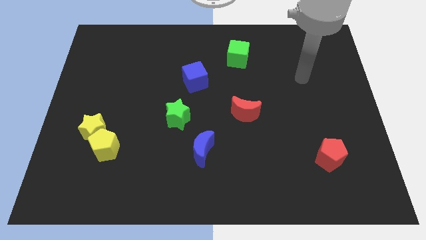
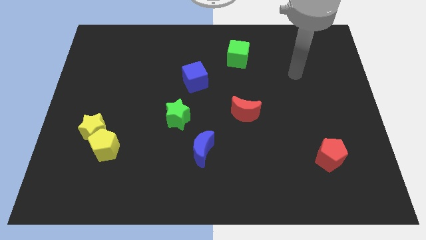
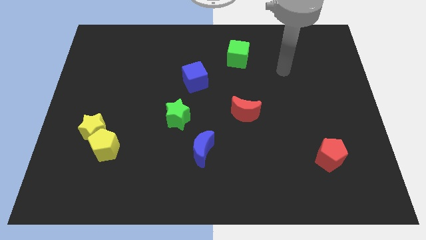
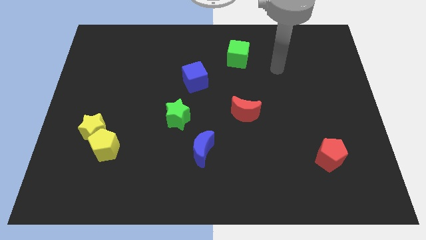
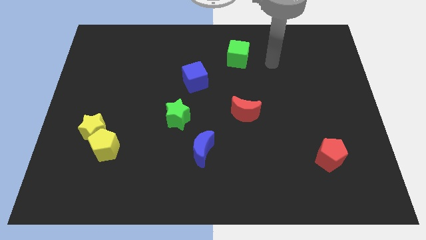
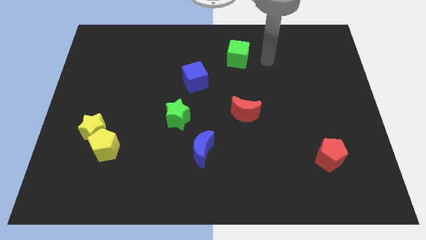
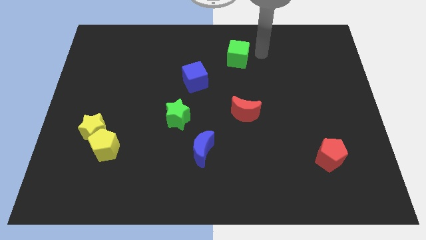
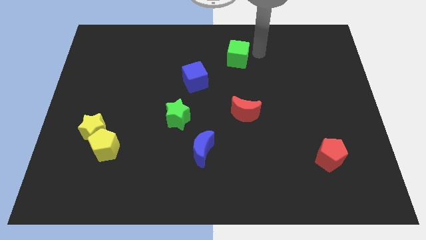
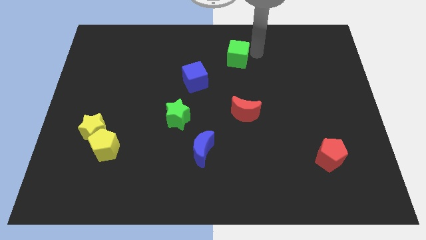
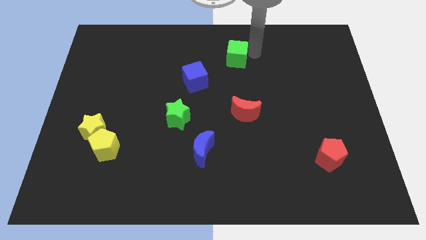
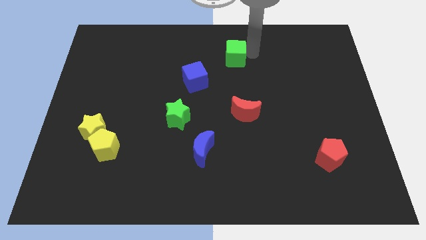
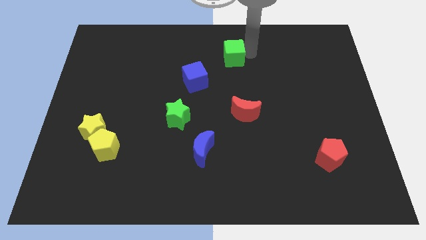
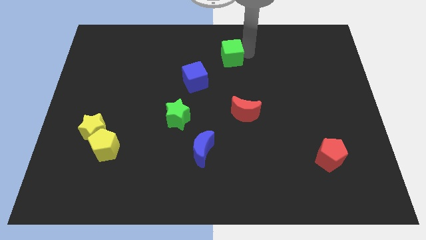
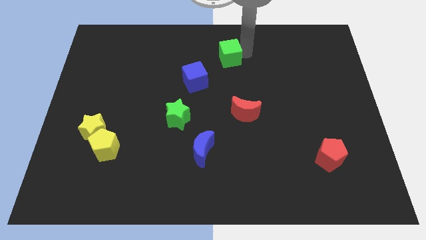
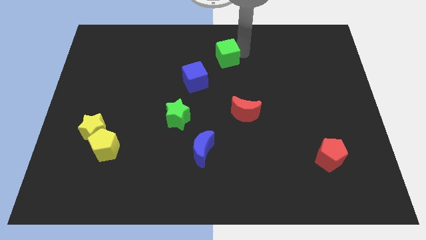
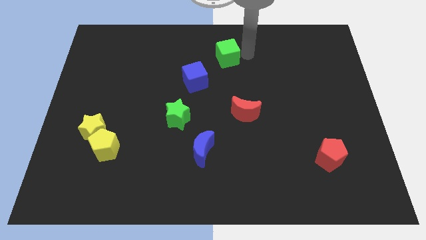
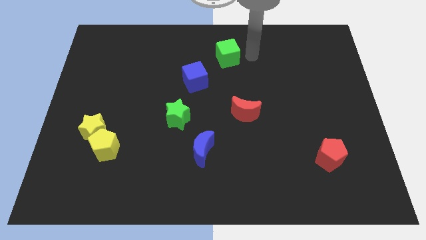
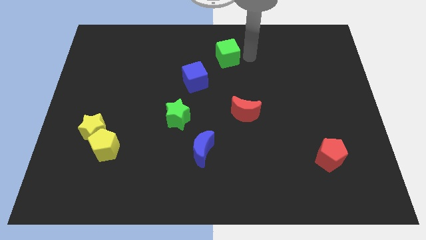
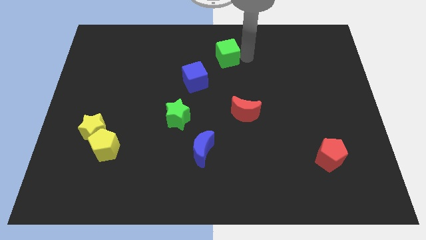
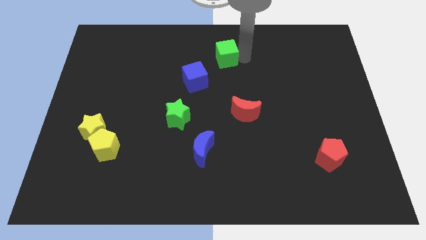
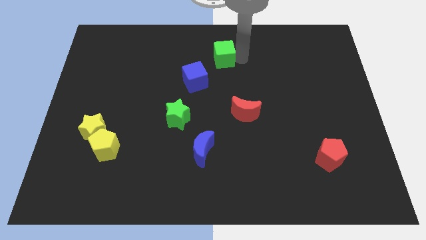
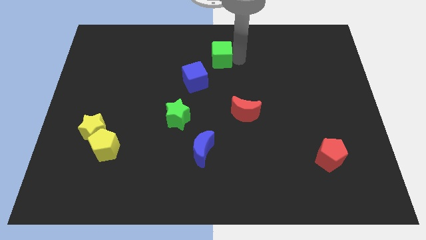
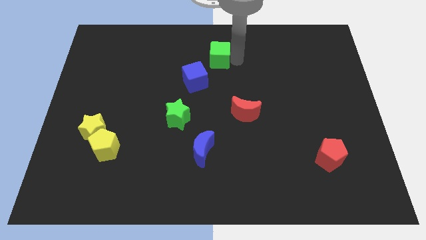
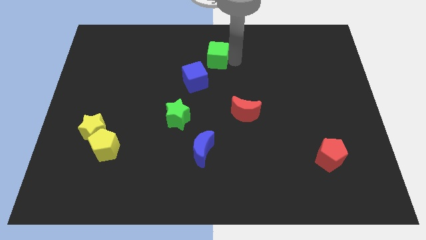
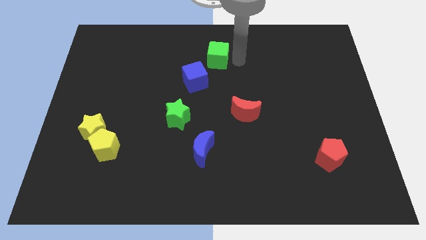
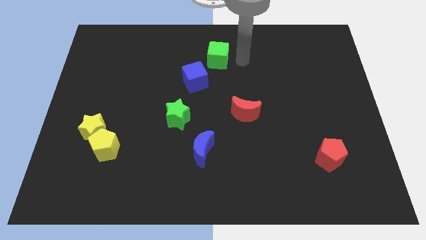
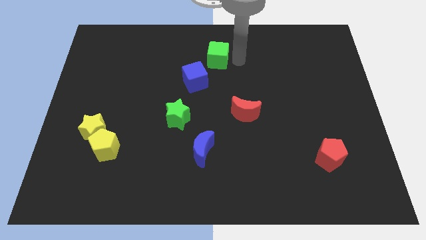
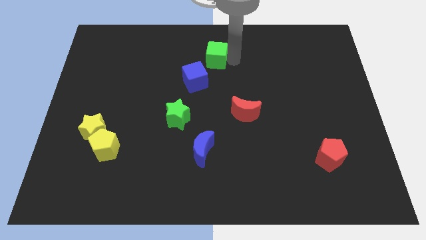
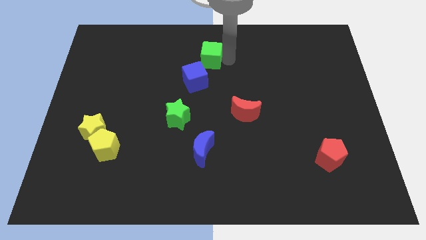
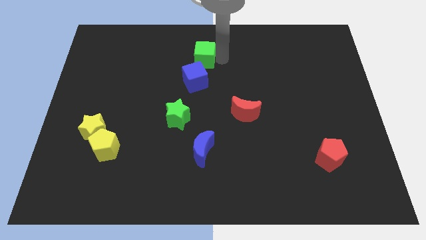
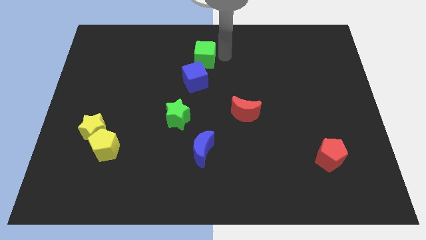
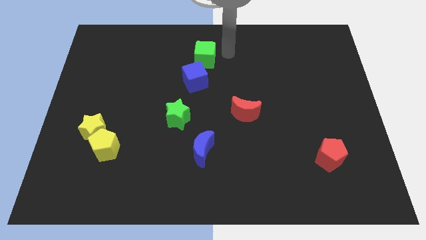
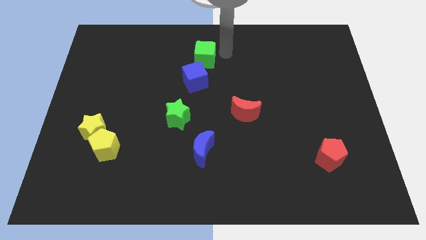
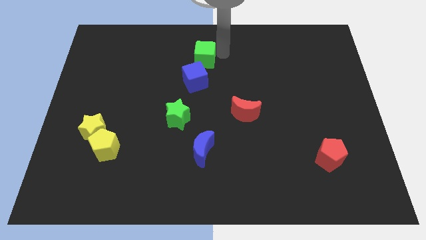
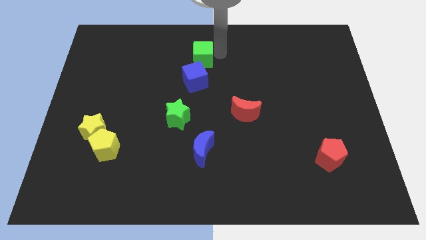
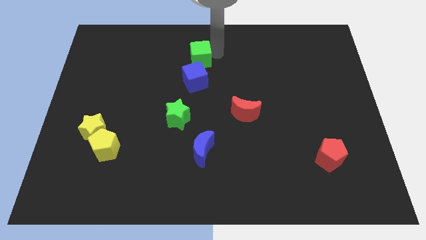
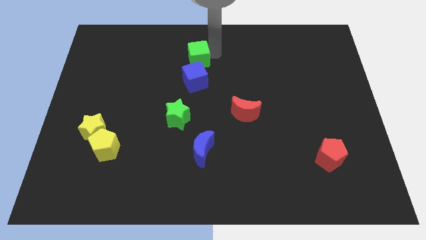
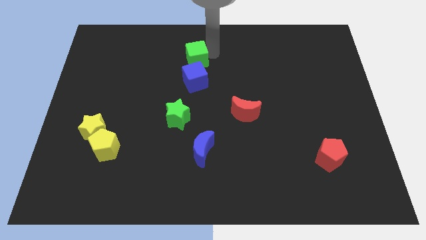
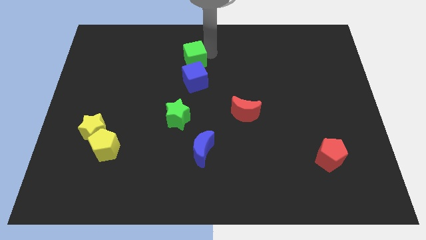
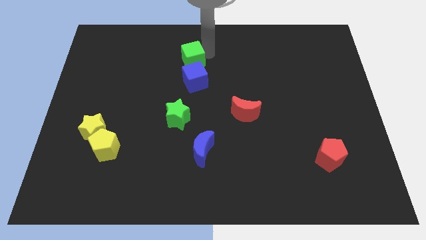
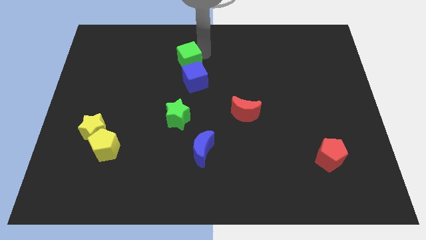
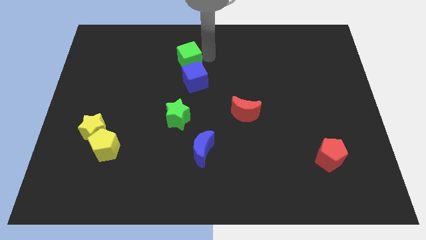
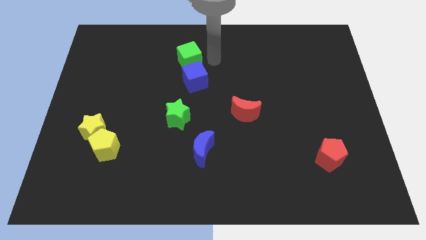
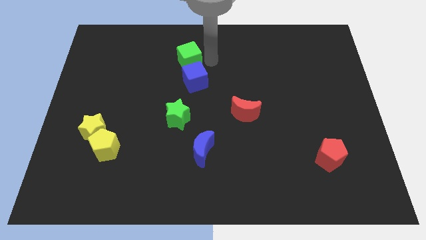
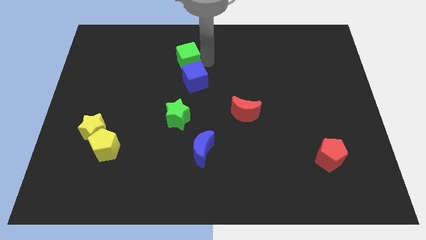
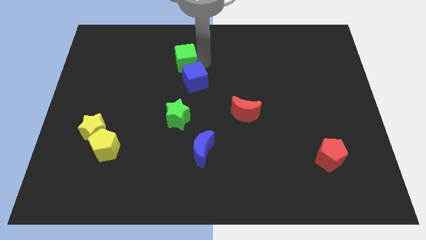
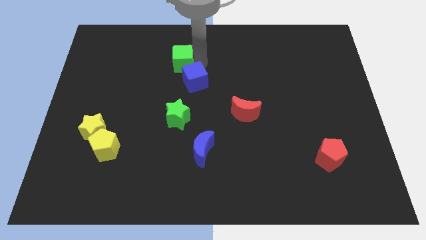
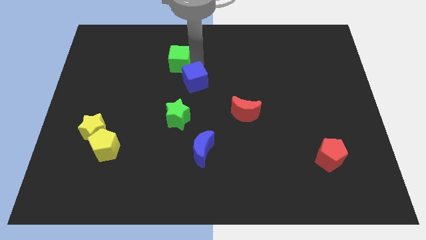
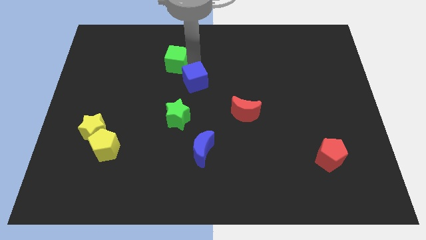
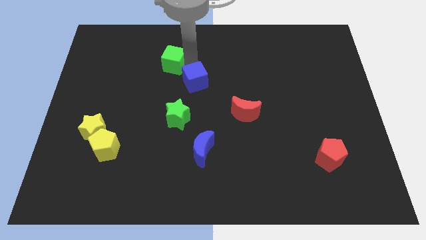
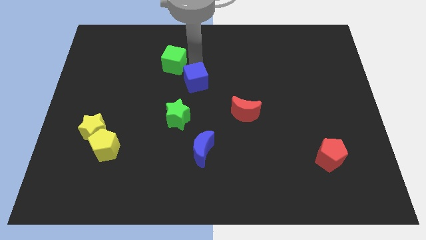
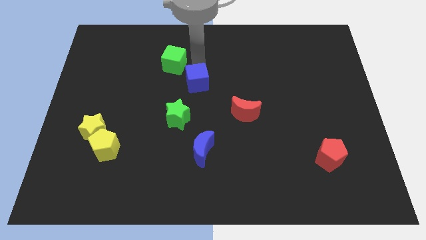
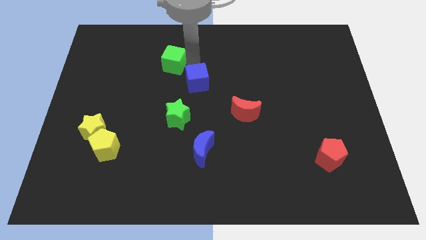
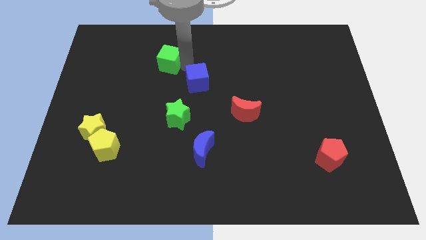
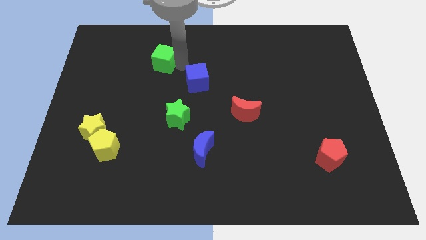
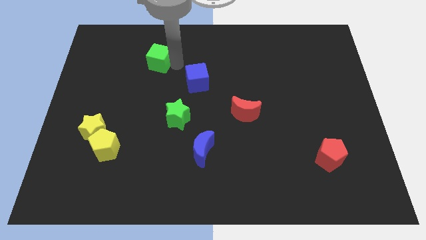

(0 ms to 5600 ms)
push the green cube to the left

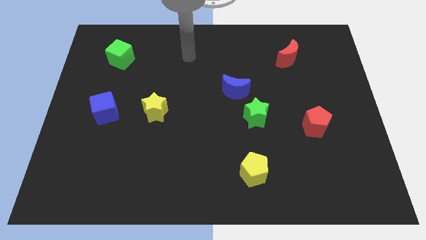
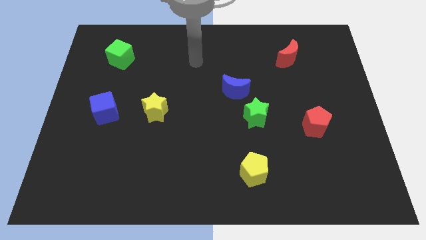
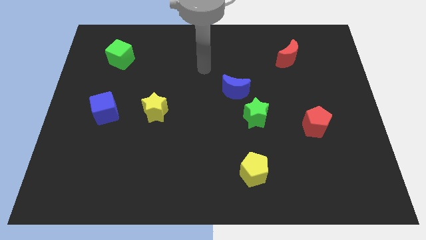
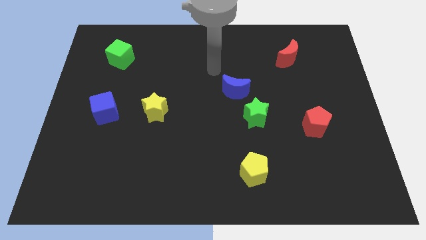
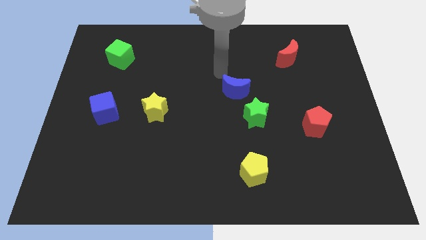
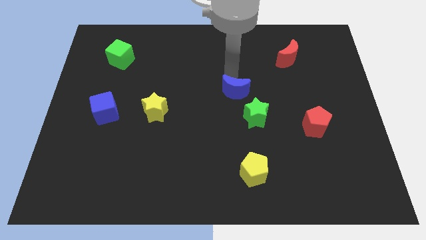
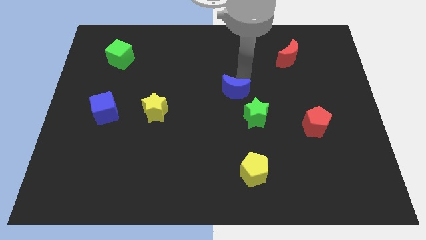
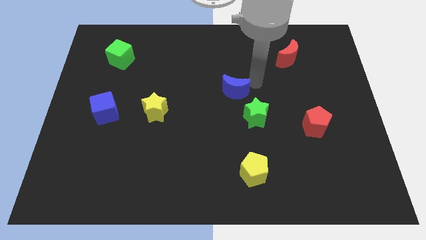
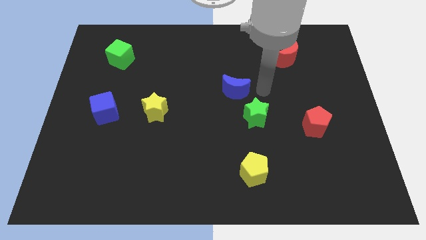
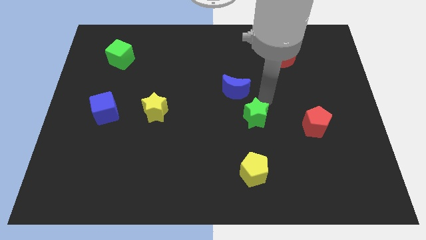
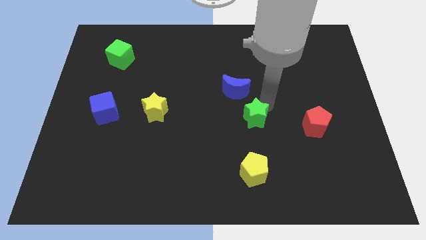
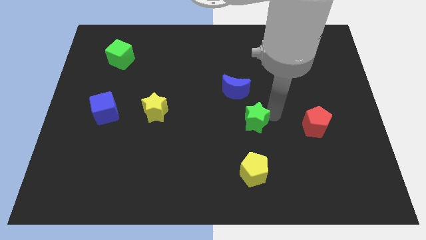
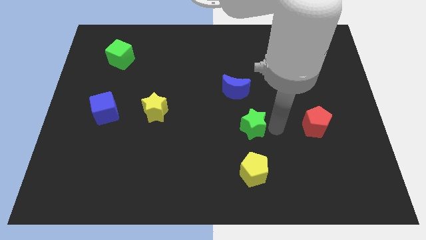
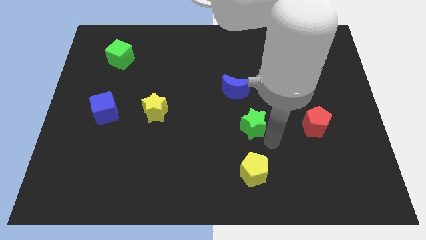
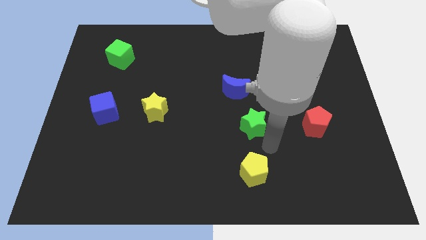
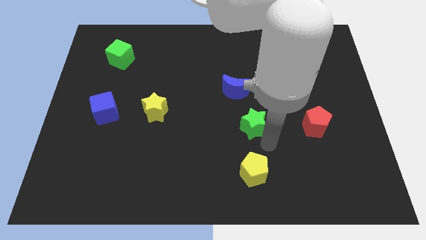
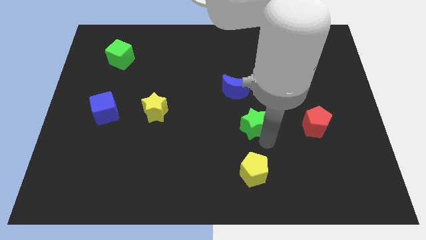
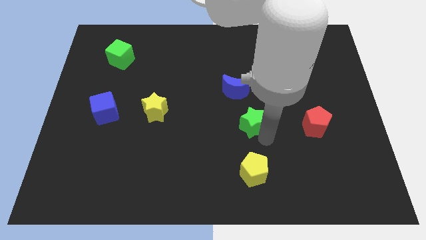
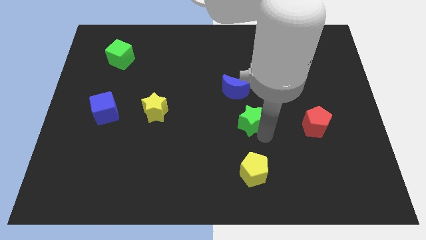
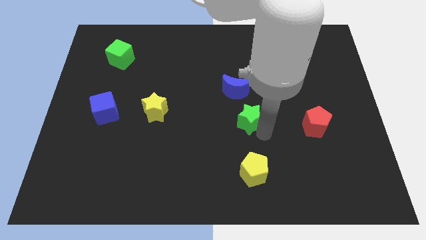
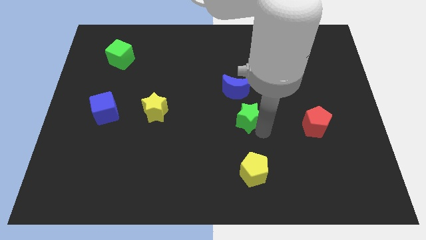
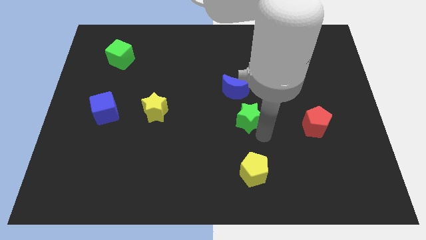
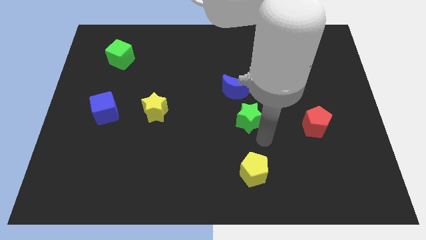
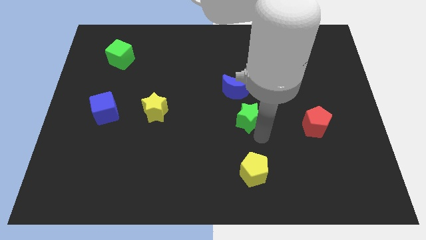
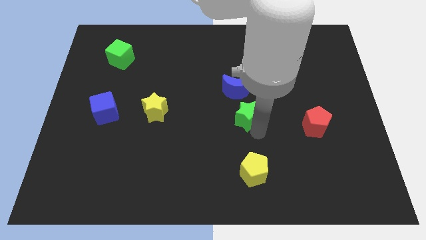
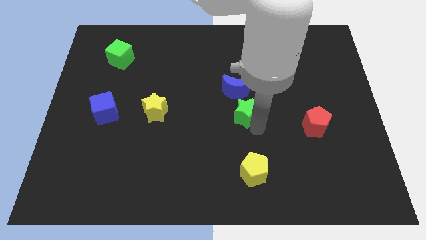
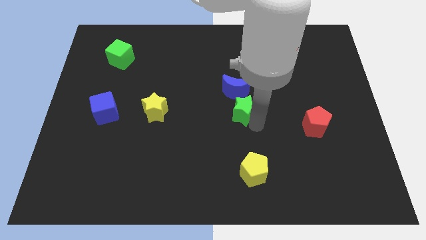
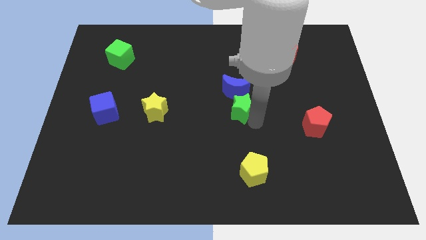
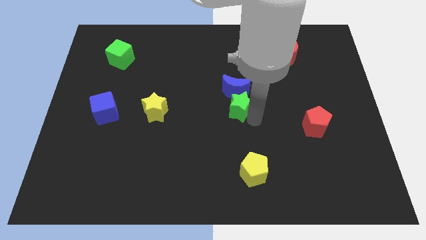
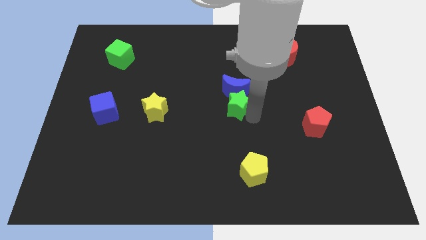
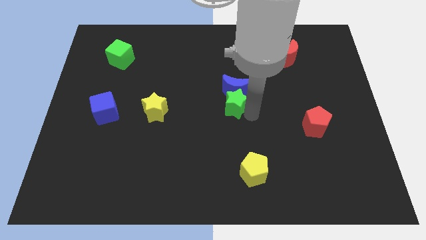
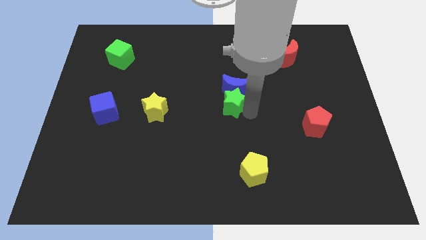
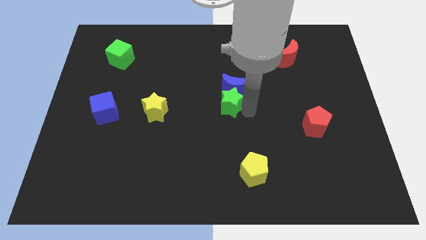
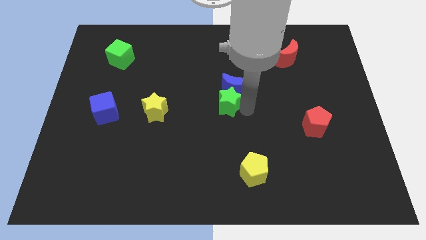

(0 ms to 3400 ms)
push the green star upwards and left a bit
